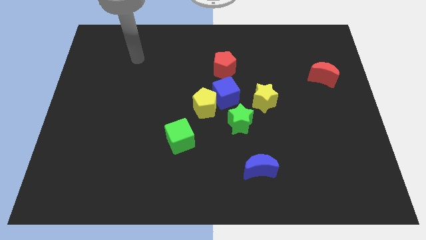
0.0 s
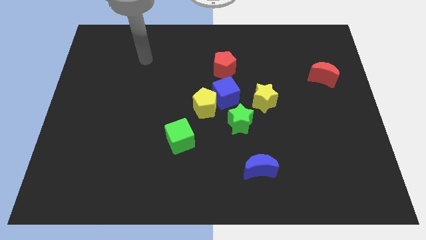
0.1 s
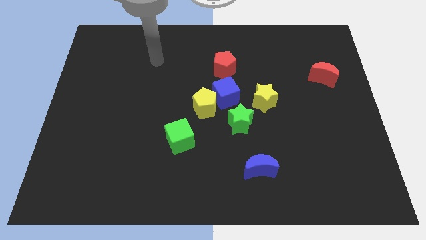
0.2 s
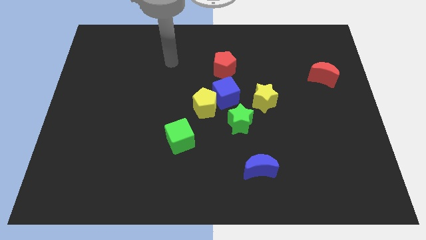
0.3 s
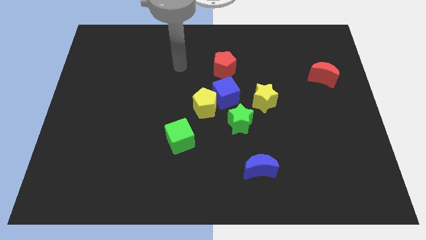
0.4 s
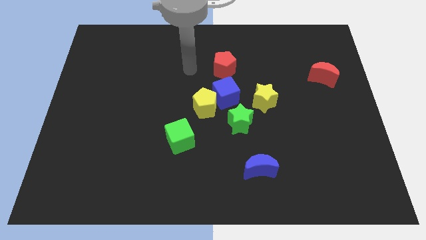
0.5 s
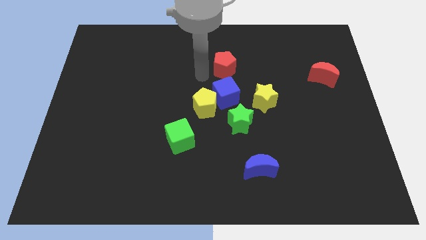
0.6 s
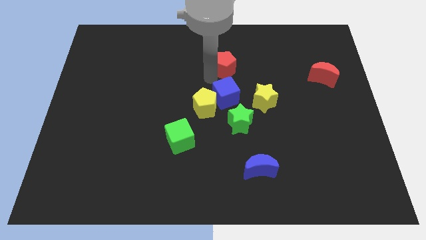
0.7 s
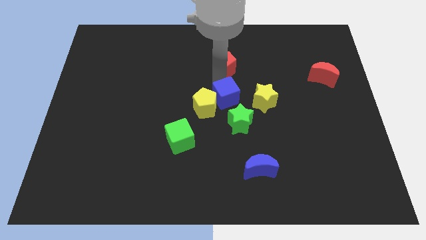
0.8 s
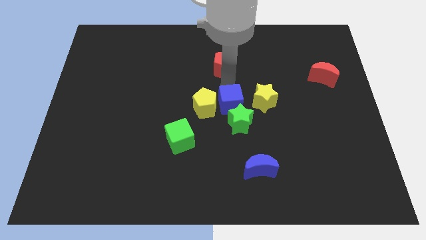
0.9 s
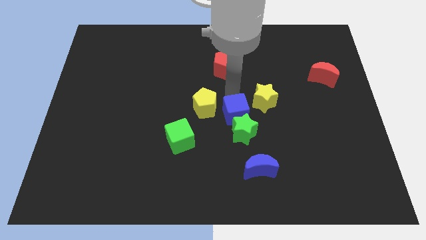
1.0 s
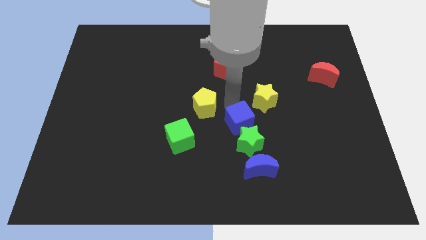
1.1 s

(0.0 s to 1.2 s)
move the yellow pentagon away from the blue cube and green star

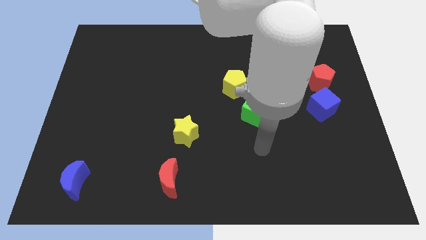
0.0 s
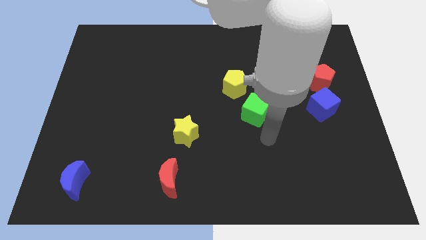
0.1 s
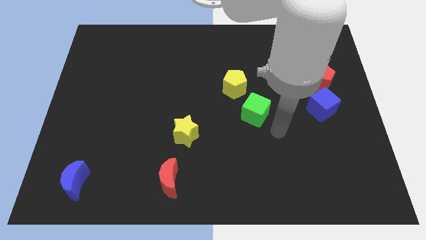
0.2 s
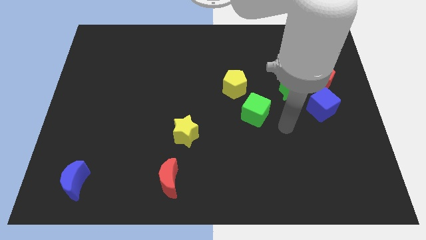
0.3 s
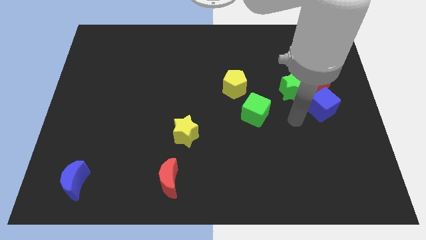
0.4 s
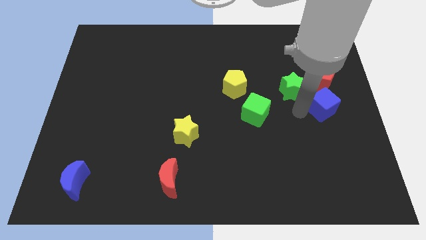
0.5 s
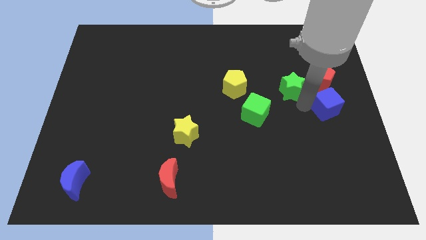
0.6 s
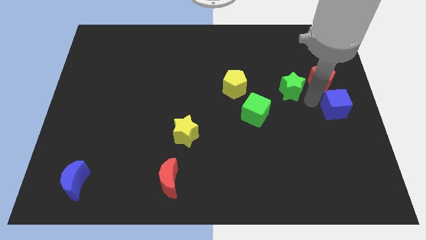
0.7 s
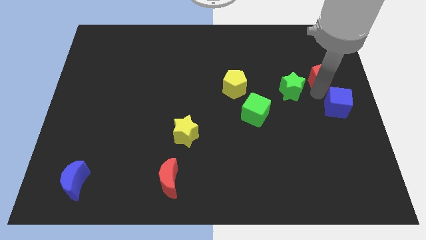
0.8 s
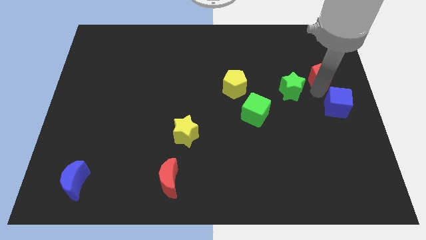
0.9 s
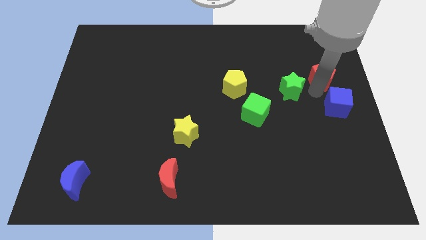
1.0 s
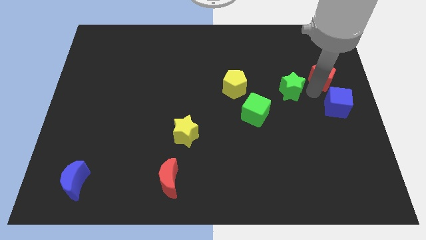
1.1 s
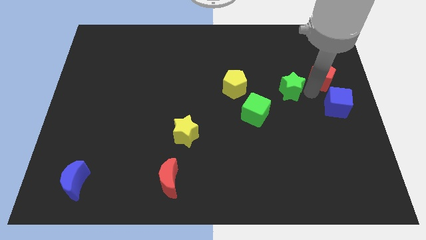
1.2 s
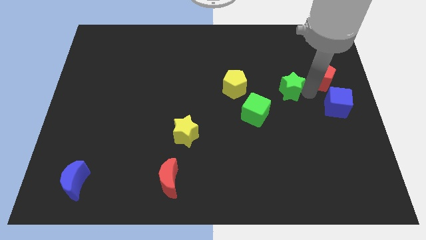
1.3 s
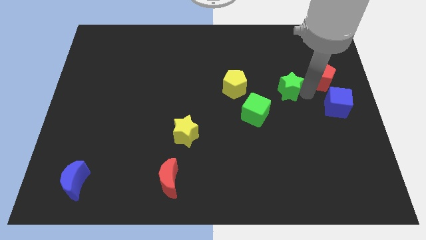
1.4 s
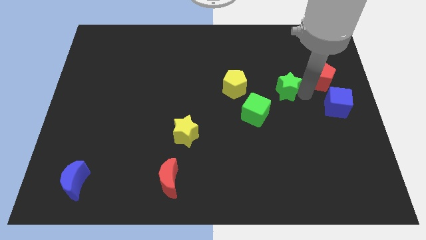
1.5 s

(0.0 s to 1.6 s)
move the green star away from the red pentagon and blue cube

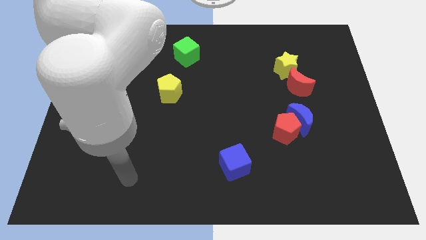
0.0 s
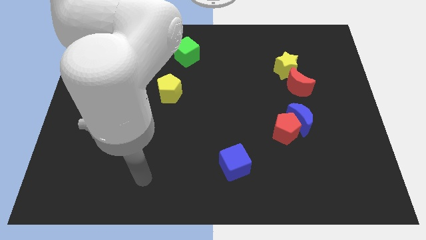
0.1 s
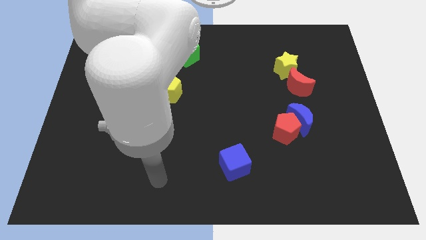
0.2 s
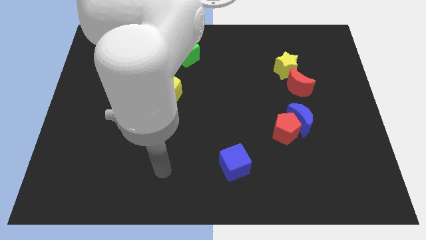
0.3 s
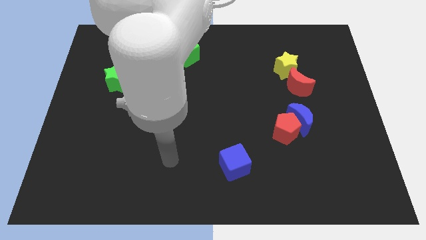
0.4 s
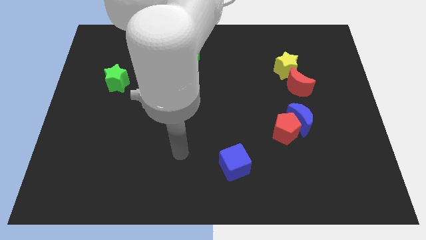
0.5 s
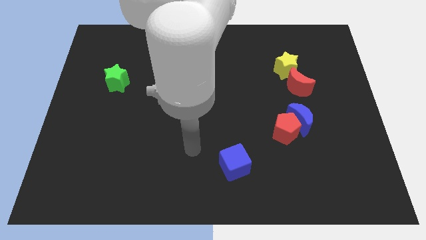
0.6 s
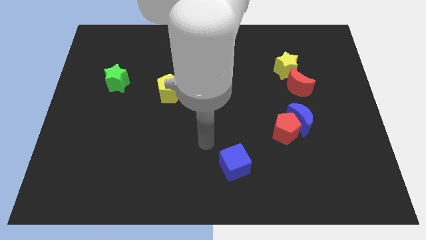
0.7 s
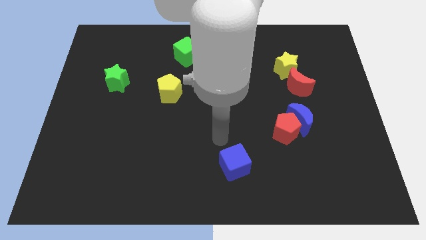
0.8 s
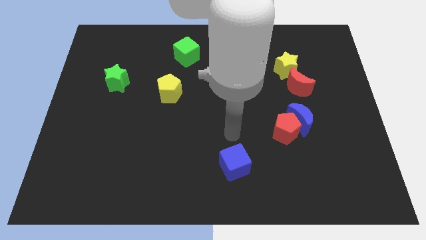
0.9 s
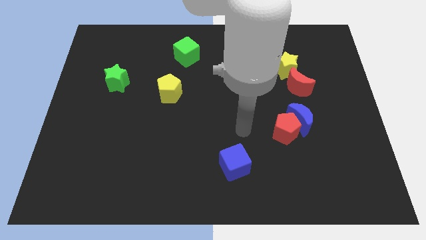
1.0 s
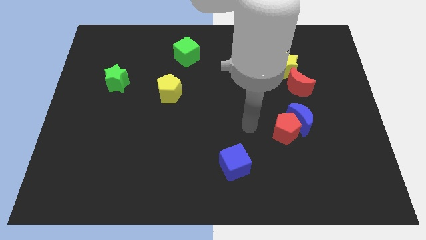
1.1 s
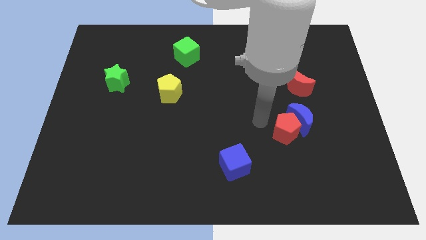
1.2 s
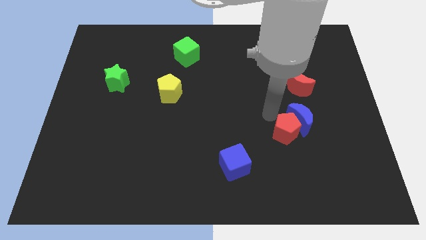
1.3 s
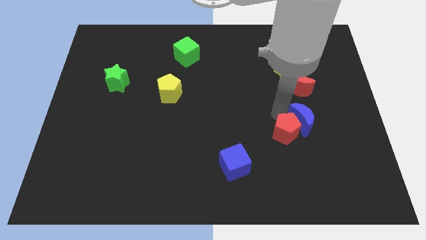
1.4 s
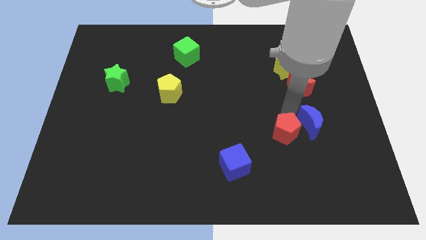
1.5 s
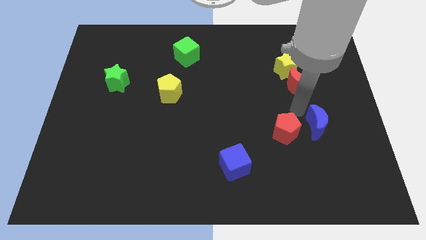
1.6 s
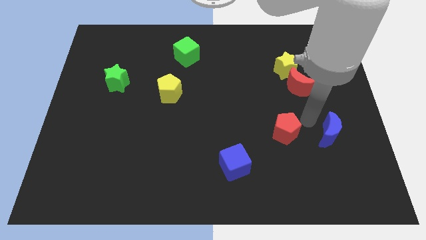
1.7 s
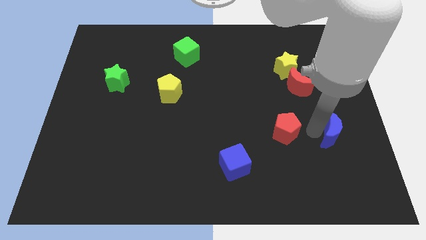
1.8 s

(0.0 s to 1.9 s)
move the red pentagon away from the blue moon

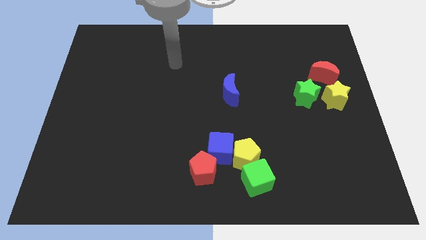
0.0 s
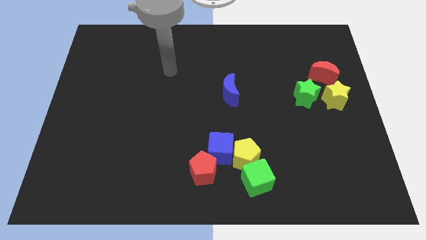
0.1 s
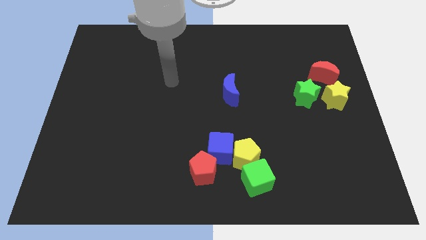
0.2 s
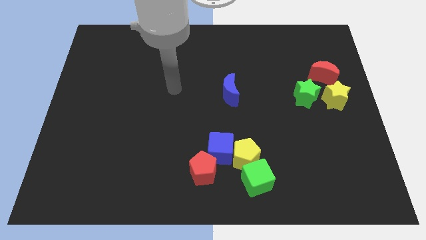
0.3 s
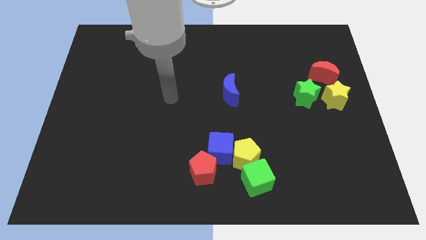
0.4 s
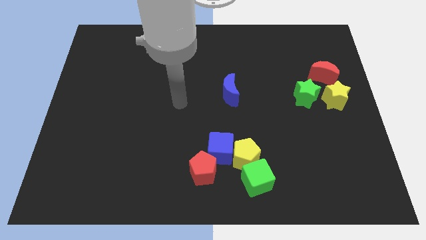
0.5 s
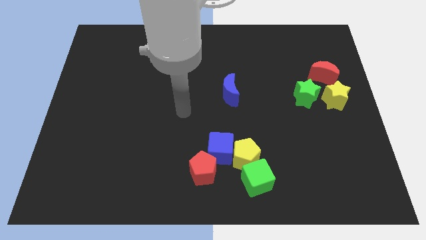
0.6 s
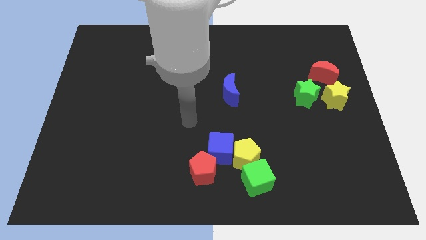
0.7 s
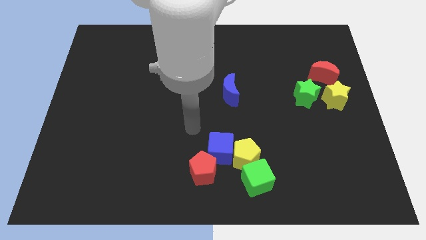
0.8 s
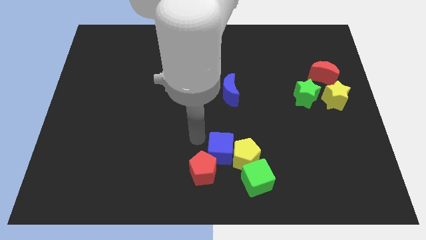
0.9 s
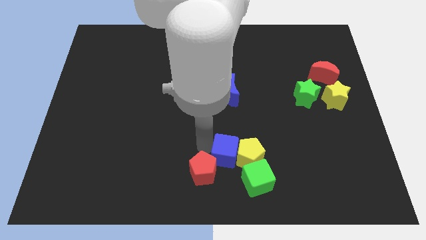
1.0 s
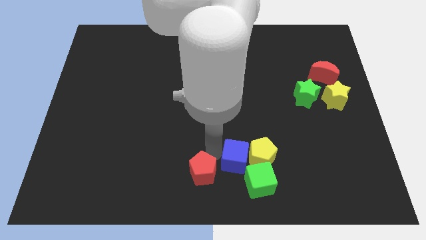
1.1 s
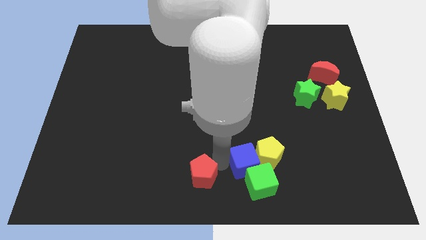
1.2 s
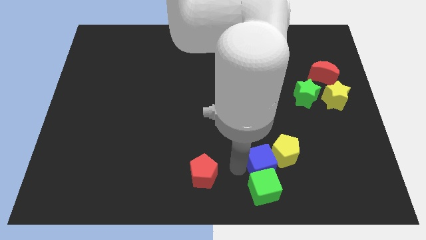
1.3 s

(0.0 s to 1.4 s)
separate the yellow pentagon from the blue cube, green cube, and red pentagon

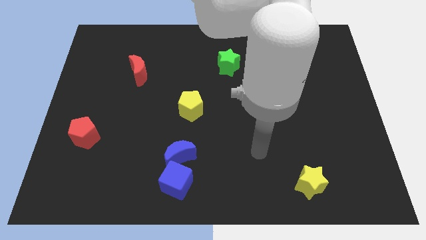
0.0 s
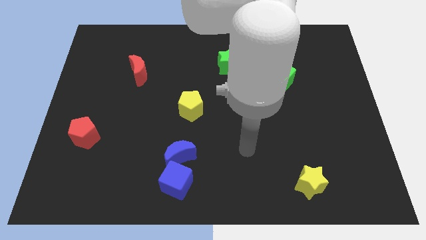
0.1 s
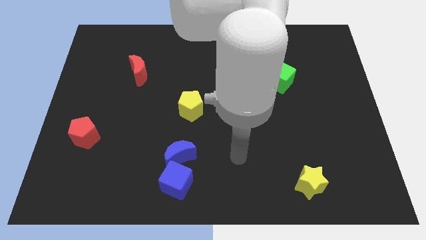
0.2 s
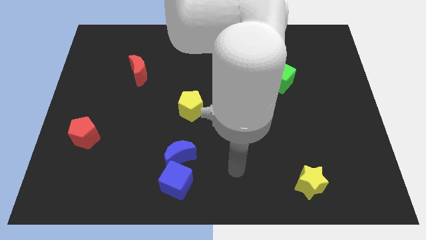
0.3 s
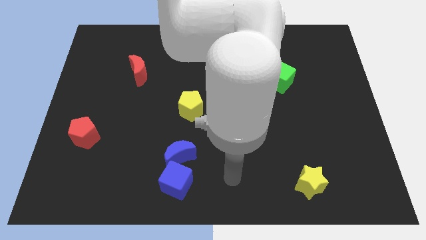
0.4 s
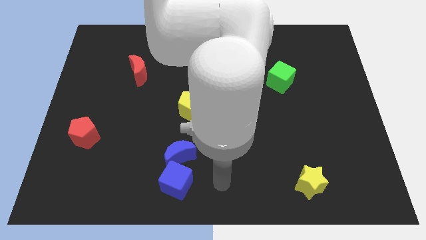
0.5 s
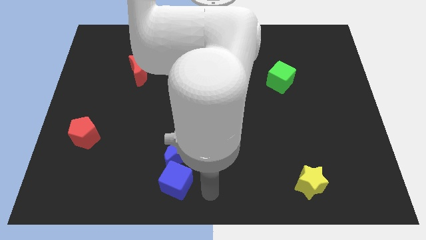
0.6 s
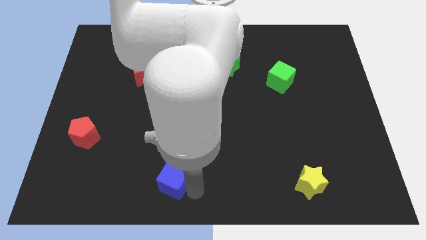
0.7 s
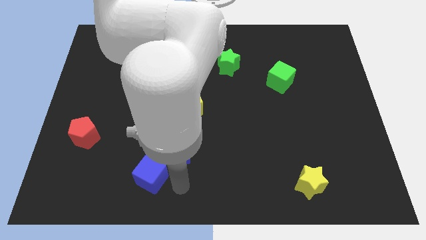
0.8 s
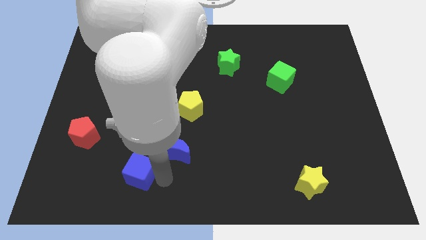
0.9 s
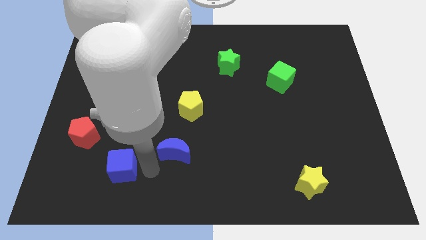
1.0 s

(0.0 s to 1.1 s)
move the blue moon away from the blue cube

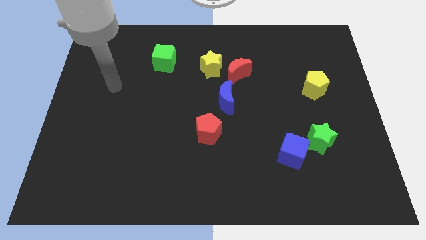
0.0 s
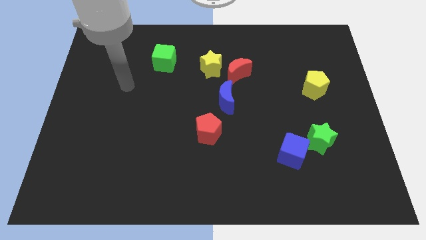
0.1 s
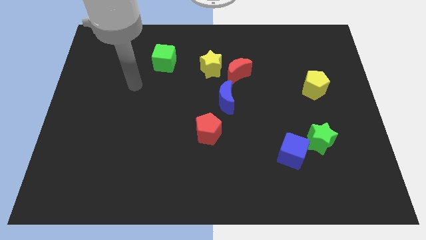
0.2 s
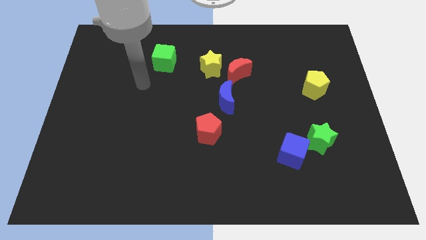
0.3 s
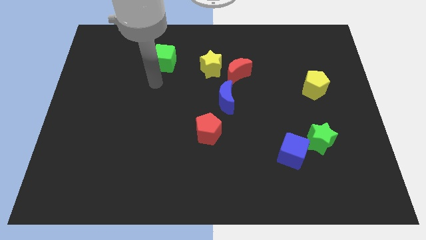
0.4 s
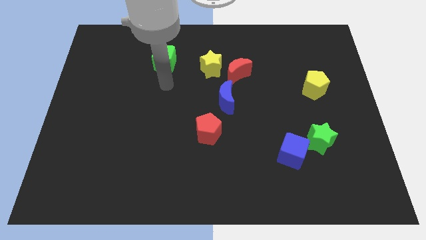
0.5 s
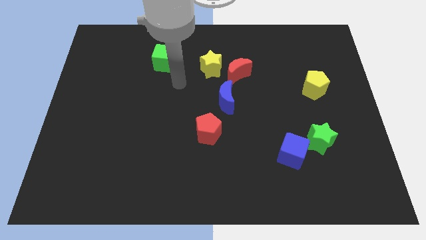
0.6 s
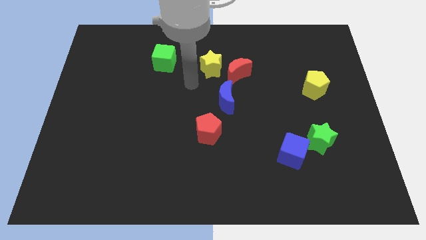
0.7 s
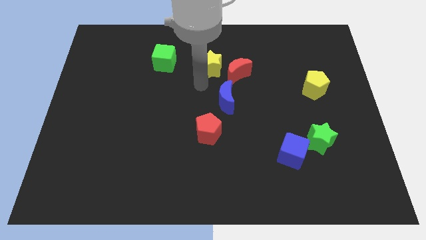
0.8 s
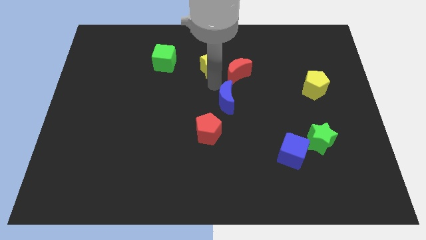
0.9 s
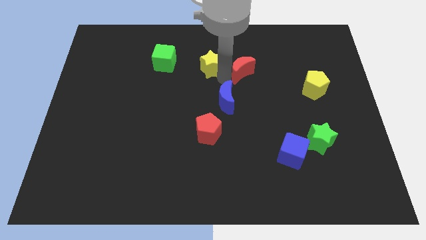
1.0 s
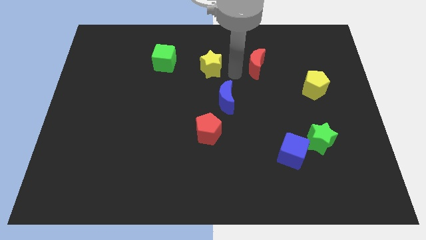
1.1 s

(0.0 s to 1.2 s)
separate the yellow star from the red moon

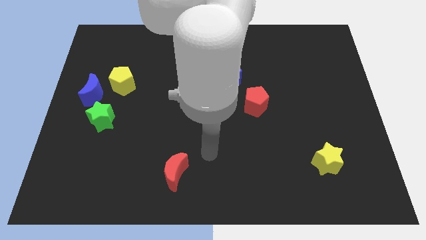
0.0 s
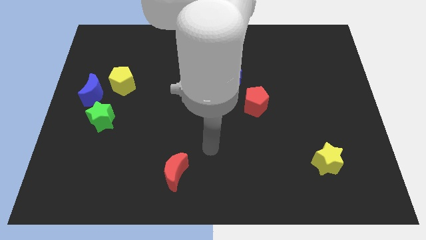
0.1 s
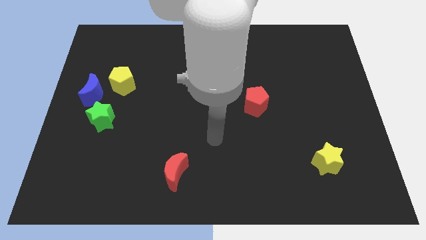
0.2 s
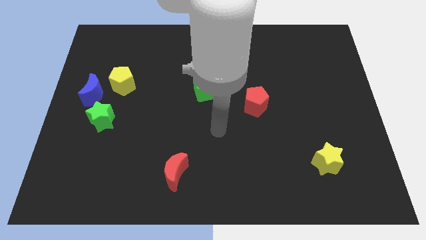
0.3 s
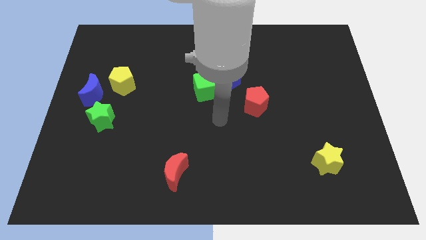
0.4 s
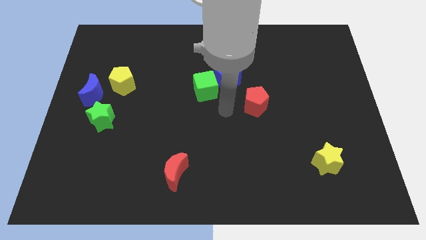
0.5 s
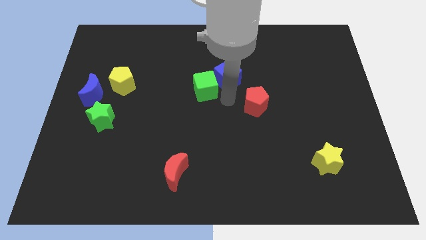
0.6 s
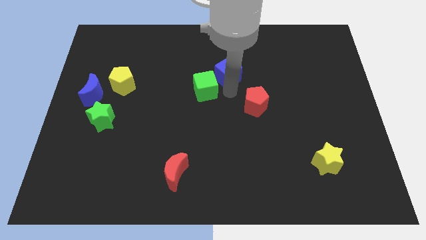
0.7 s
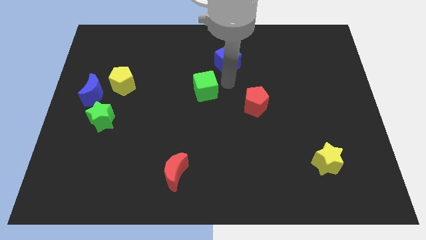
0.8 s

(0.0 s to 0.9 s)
move the green cube away from the blue cube

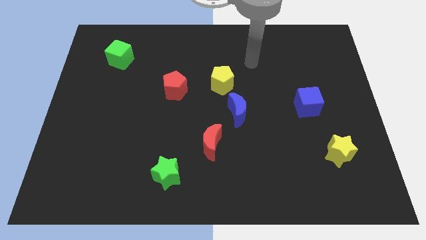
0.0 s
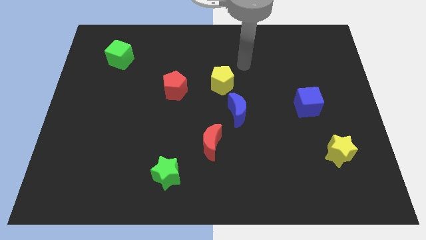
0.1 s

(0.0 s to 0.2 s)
separate the blue moon from the yellow pentagon
